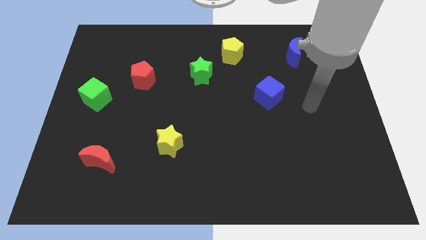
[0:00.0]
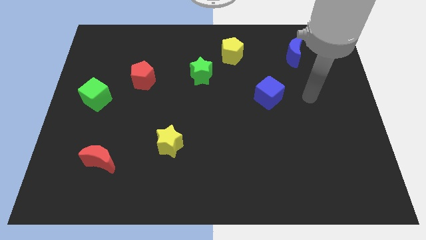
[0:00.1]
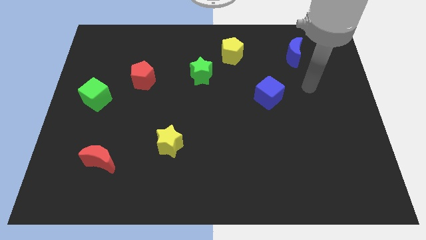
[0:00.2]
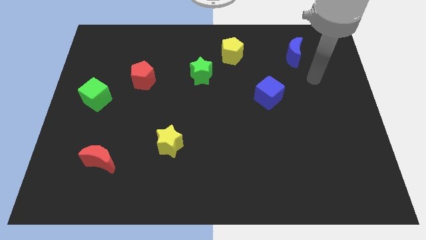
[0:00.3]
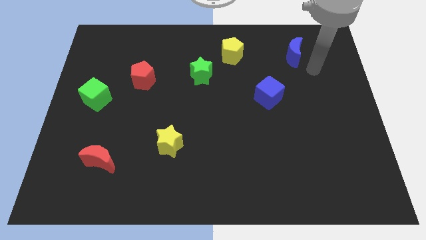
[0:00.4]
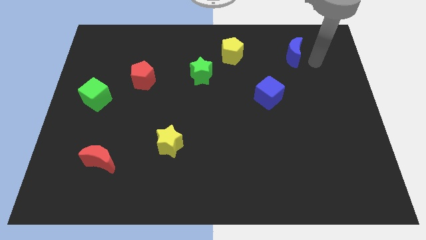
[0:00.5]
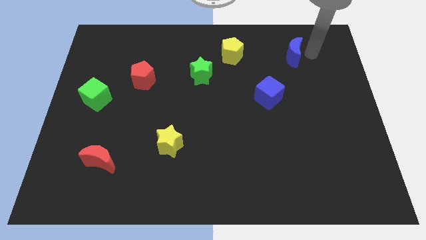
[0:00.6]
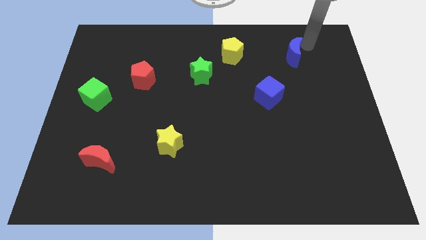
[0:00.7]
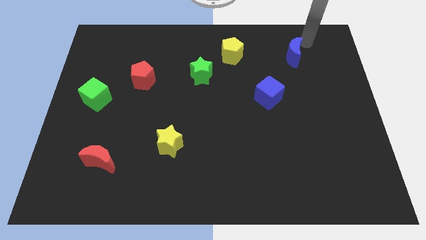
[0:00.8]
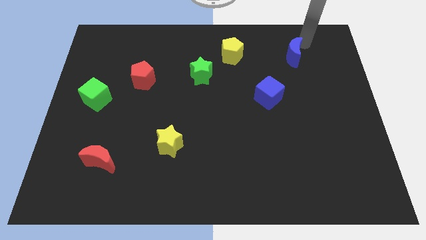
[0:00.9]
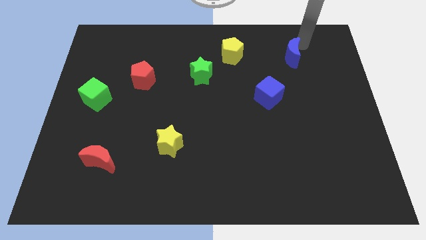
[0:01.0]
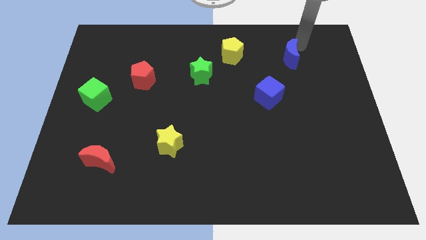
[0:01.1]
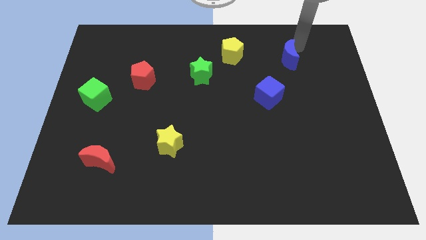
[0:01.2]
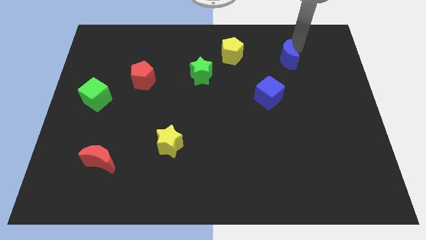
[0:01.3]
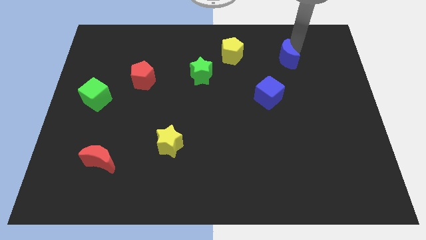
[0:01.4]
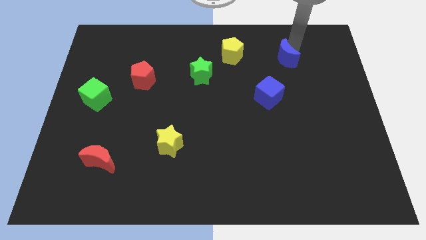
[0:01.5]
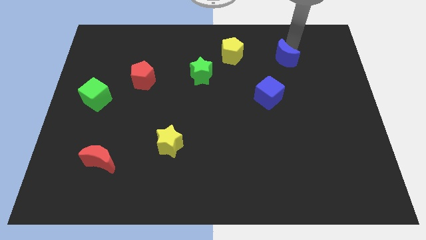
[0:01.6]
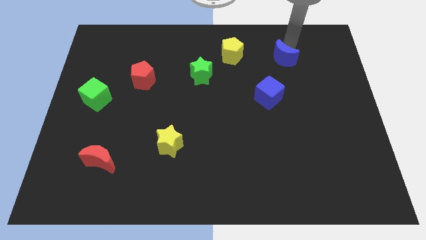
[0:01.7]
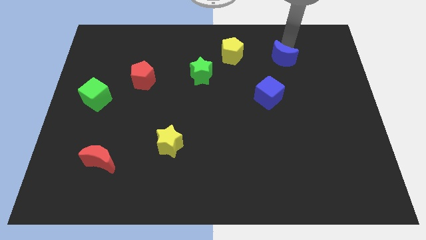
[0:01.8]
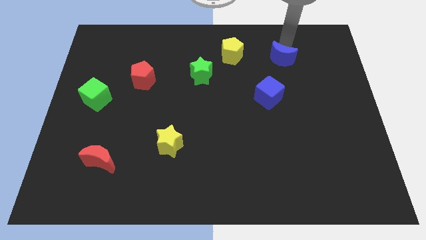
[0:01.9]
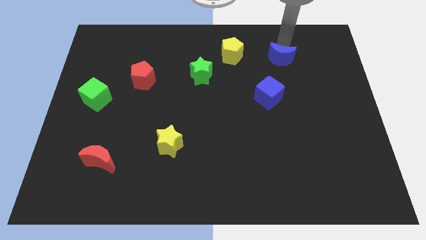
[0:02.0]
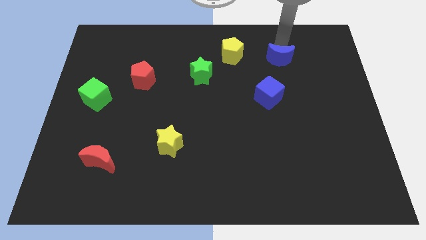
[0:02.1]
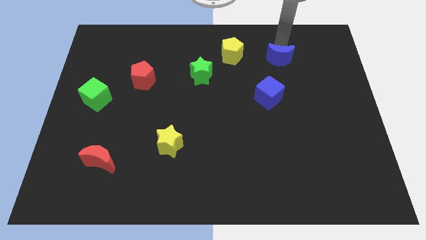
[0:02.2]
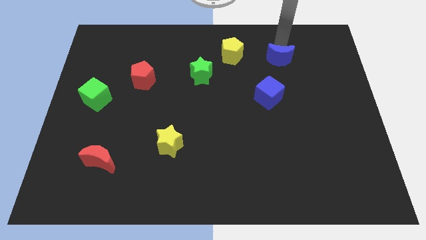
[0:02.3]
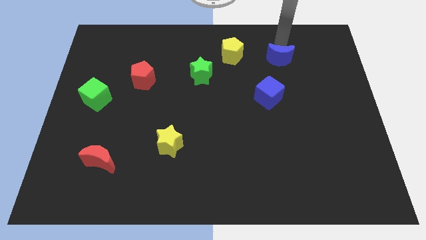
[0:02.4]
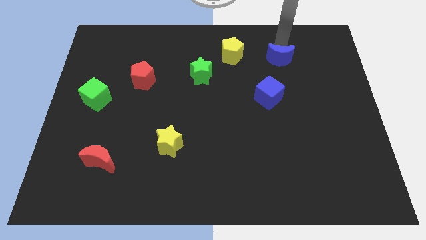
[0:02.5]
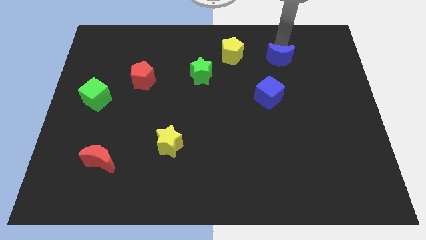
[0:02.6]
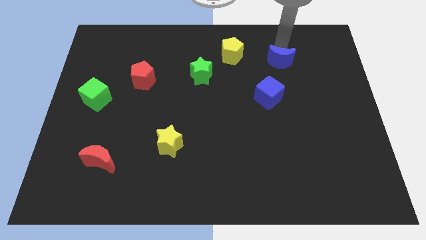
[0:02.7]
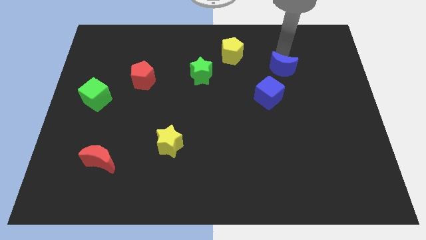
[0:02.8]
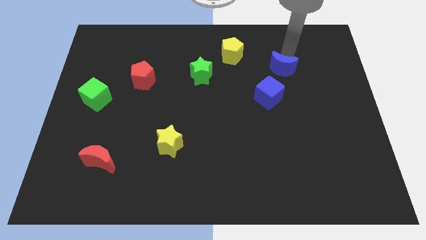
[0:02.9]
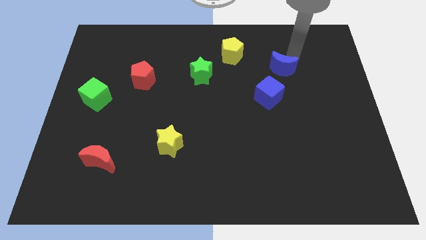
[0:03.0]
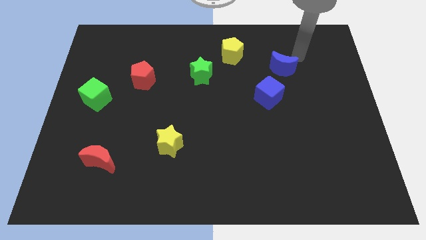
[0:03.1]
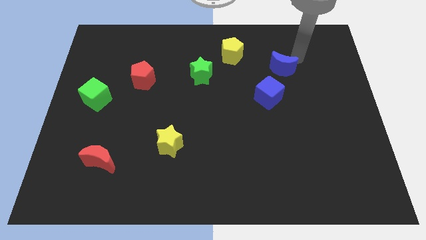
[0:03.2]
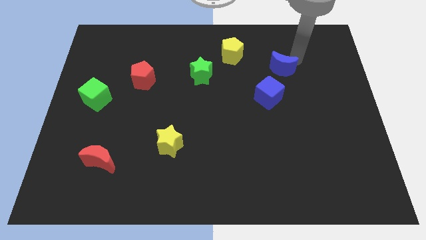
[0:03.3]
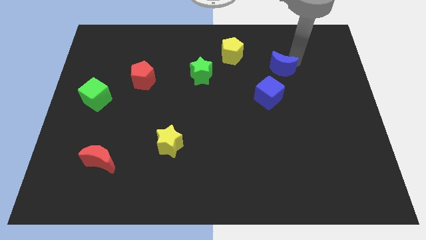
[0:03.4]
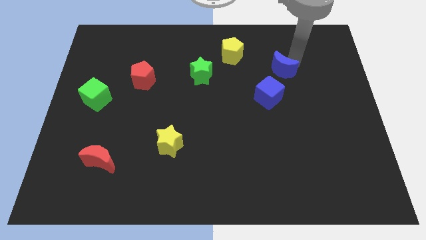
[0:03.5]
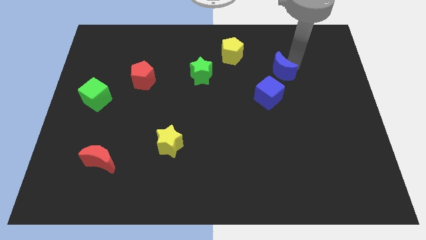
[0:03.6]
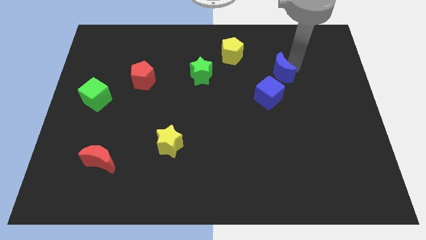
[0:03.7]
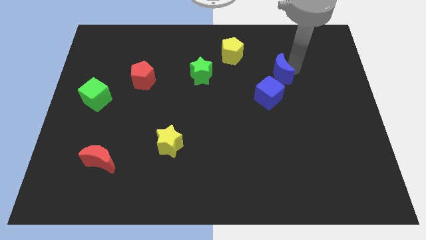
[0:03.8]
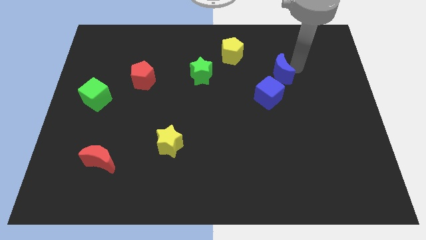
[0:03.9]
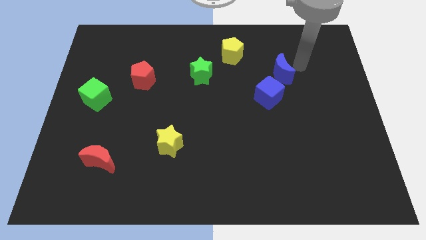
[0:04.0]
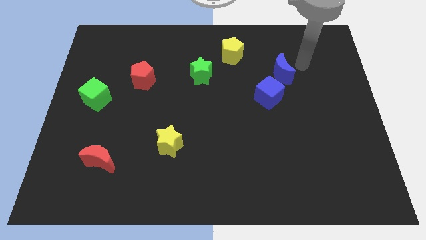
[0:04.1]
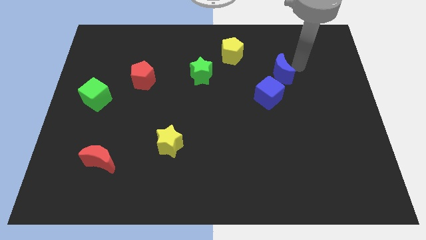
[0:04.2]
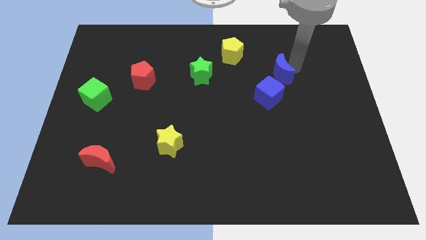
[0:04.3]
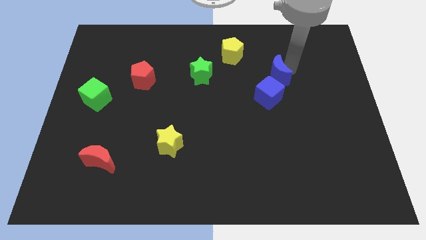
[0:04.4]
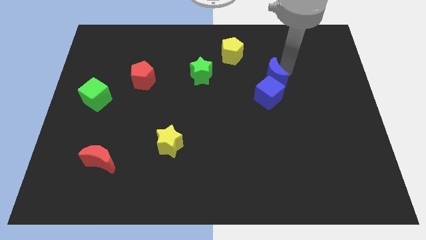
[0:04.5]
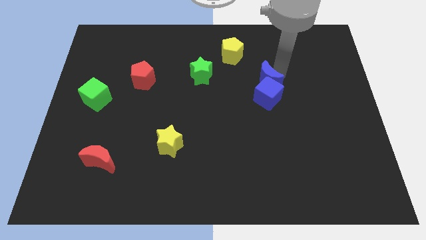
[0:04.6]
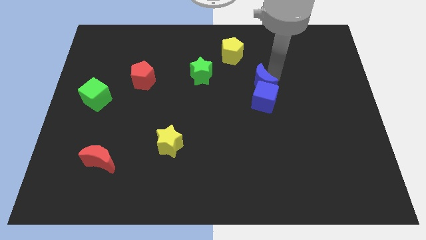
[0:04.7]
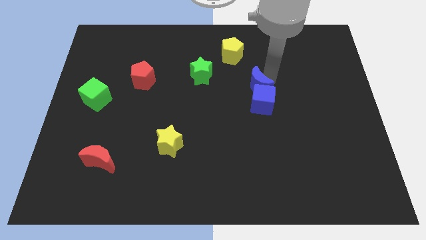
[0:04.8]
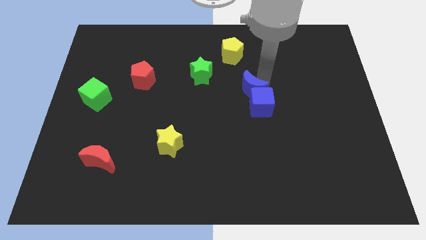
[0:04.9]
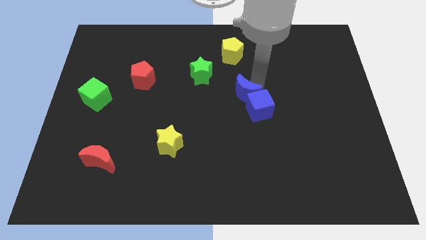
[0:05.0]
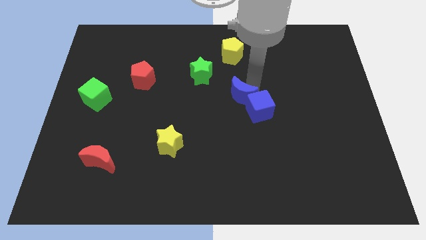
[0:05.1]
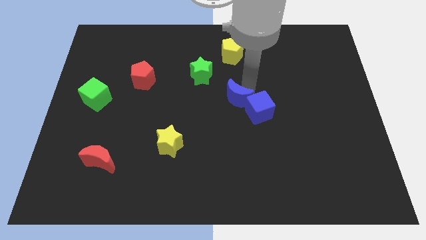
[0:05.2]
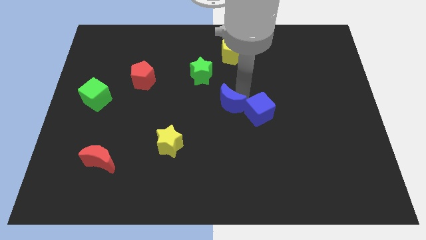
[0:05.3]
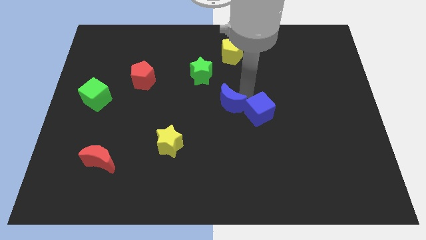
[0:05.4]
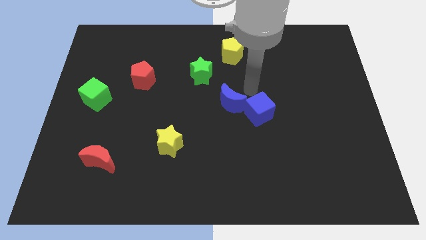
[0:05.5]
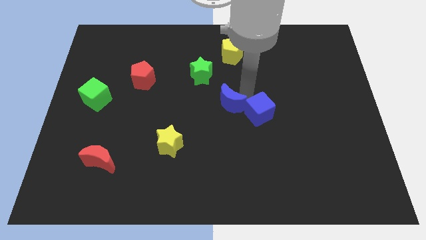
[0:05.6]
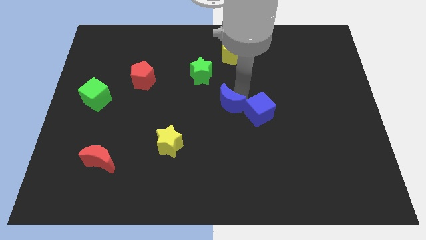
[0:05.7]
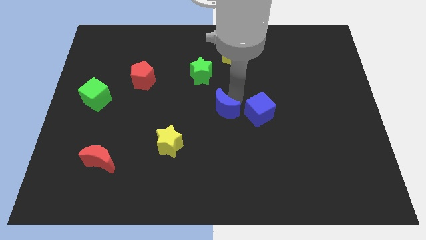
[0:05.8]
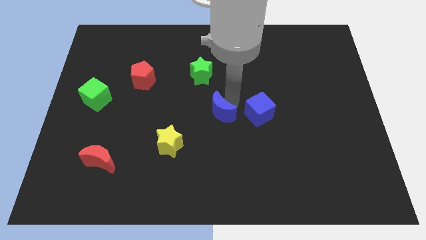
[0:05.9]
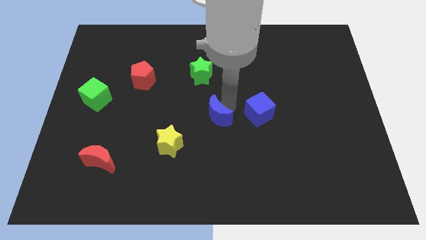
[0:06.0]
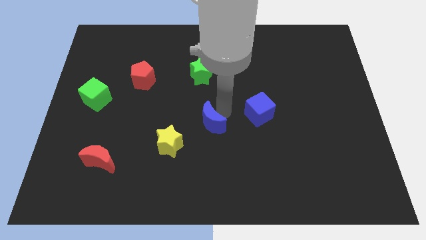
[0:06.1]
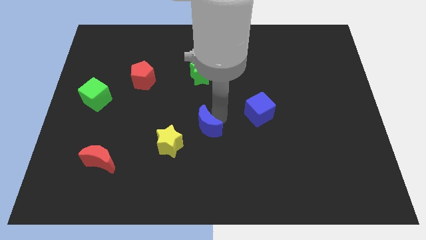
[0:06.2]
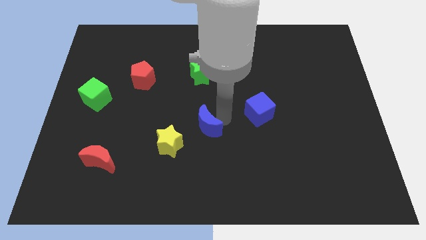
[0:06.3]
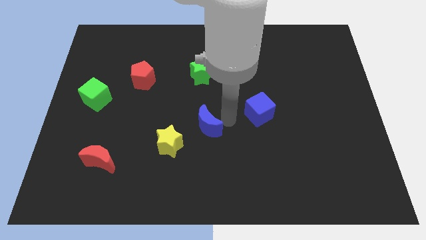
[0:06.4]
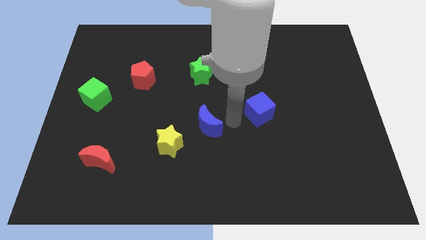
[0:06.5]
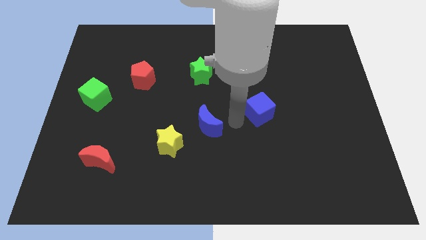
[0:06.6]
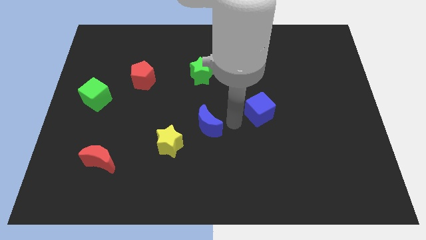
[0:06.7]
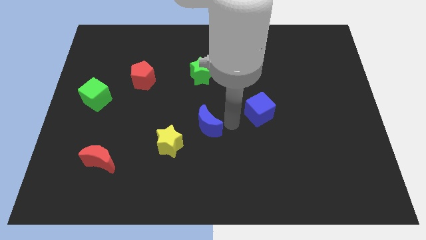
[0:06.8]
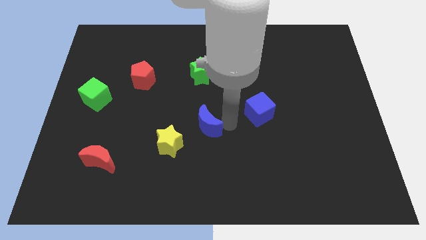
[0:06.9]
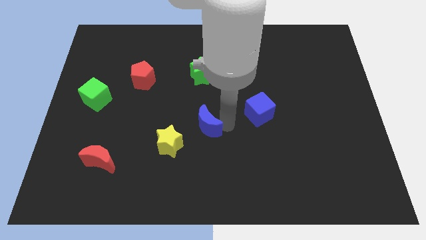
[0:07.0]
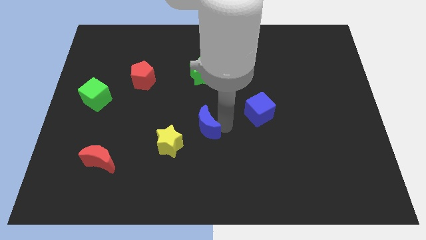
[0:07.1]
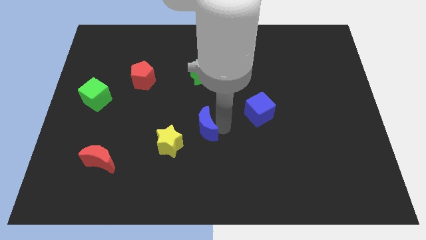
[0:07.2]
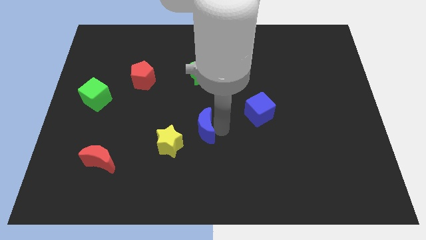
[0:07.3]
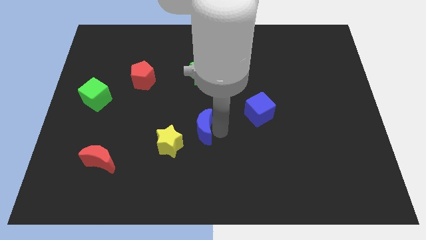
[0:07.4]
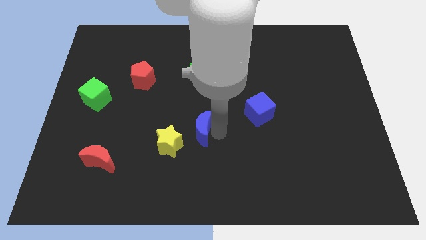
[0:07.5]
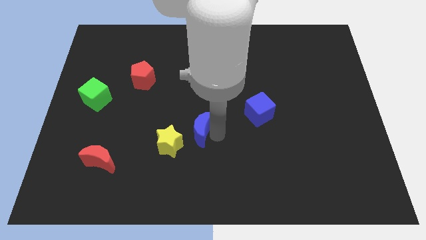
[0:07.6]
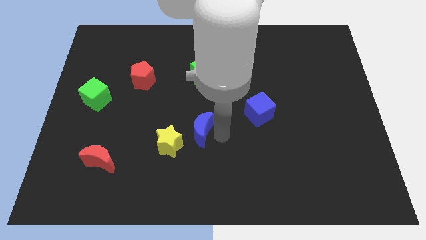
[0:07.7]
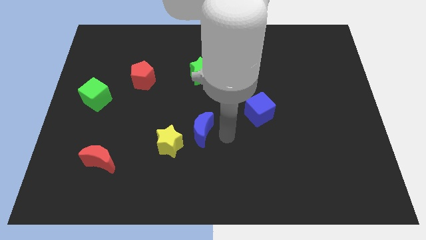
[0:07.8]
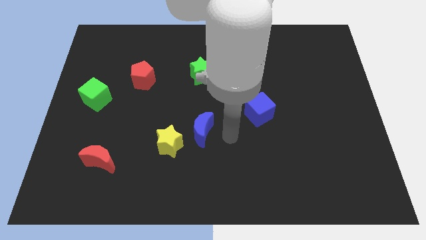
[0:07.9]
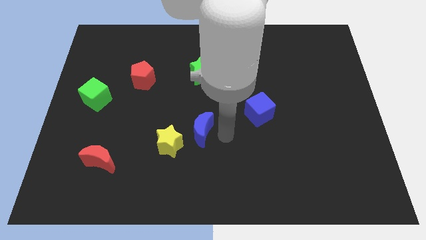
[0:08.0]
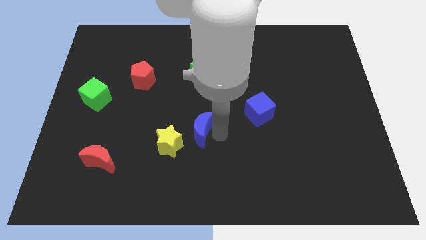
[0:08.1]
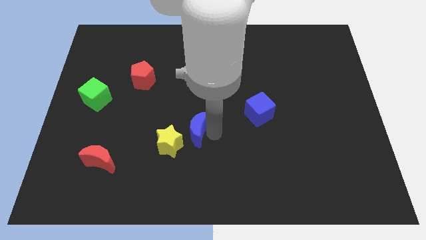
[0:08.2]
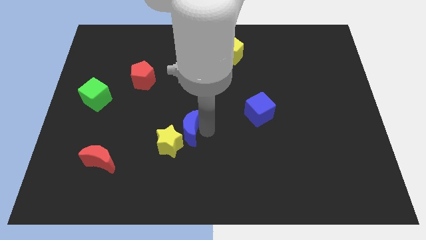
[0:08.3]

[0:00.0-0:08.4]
push the blue moon close to the yellow star
